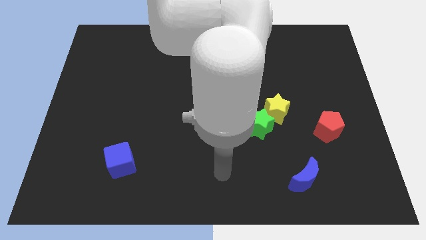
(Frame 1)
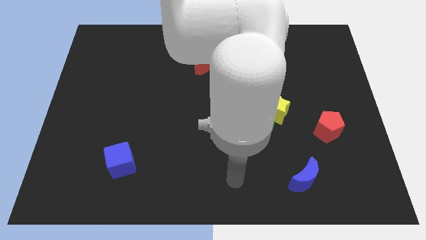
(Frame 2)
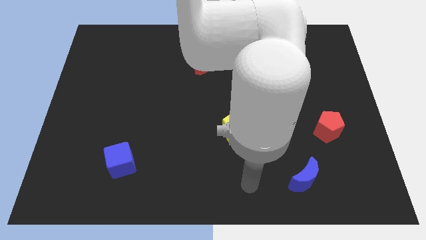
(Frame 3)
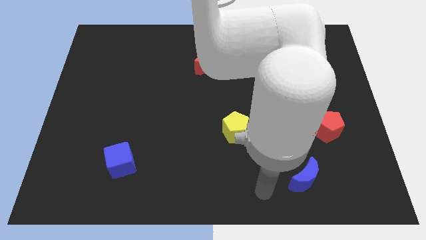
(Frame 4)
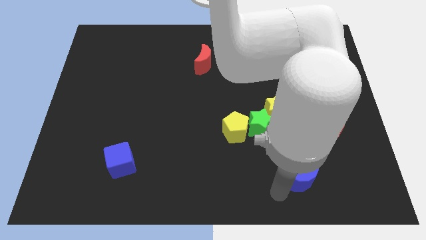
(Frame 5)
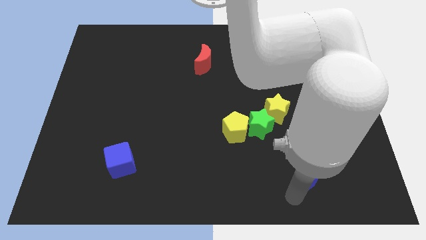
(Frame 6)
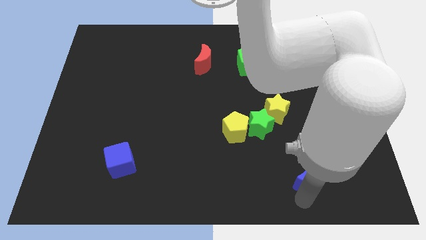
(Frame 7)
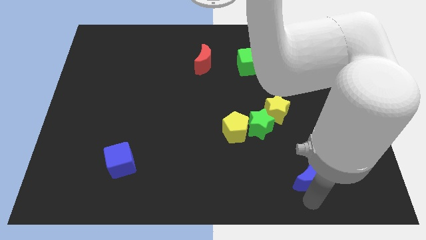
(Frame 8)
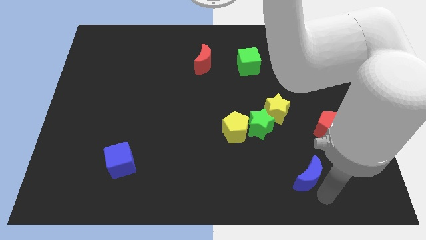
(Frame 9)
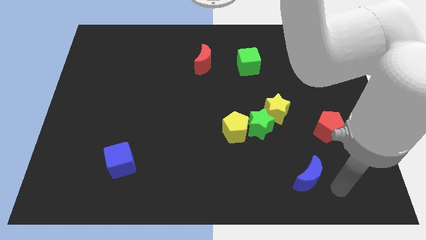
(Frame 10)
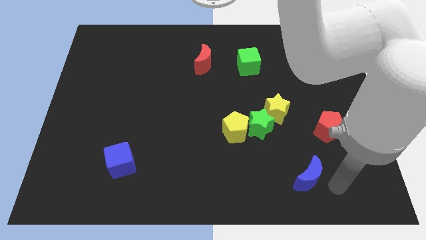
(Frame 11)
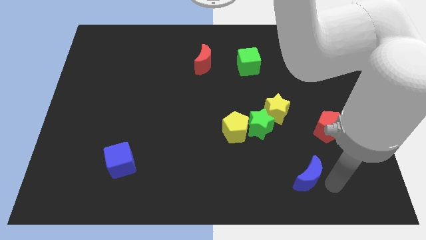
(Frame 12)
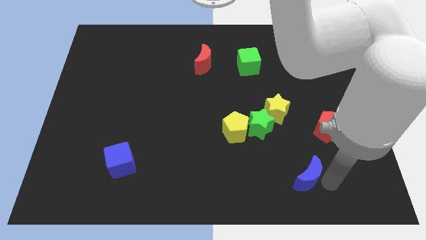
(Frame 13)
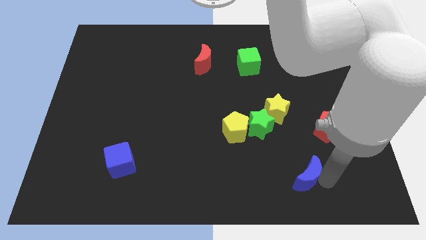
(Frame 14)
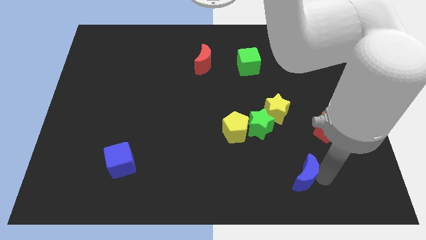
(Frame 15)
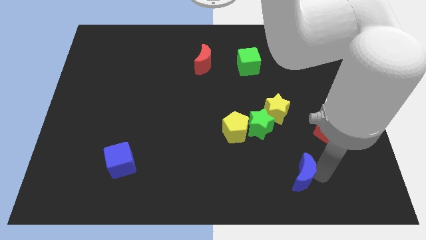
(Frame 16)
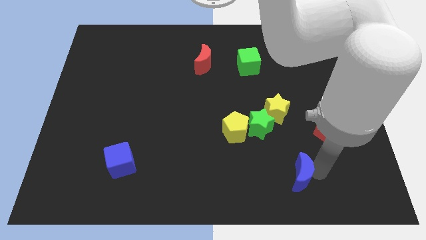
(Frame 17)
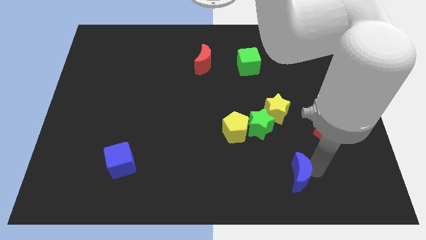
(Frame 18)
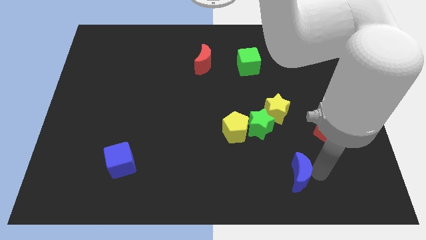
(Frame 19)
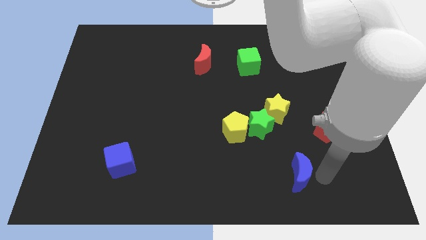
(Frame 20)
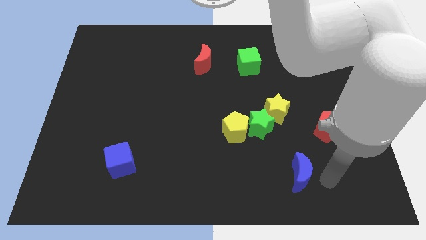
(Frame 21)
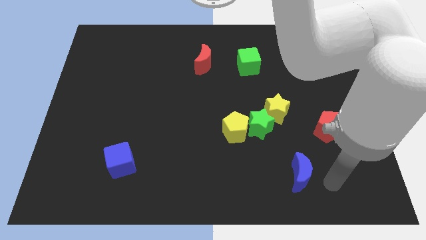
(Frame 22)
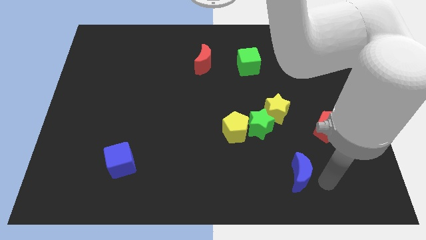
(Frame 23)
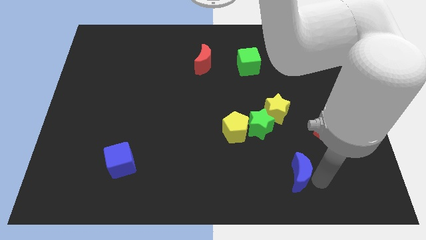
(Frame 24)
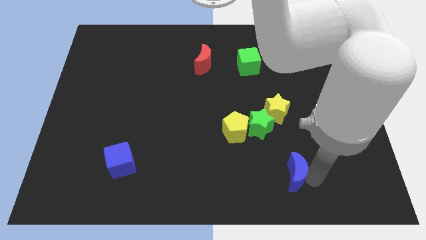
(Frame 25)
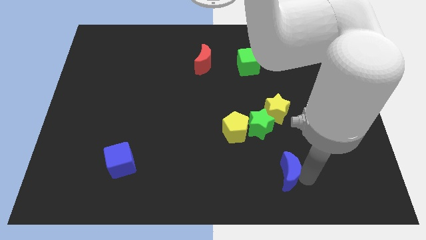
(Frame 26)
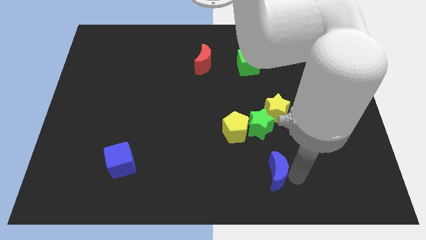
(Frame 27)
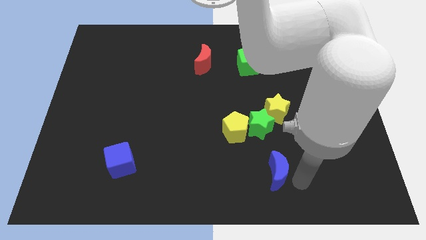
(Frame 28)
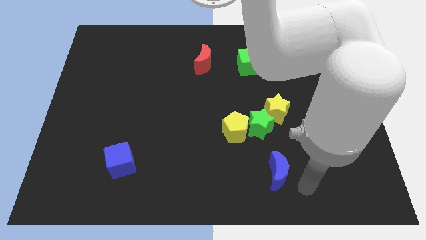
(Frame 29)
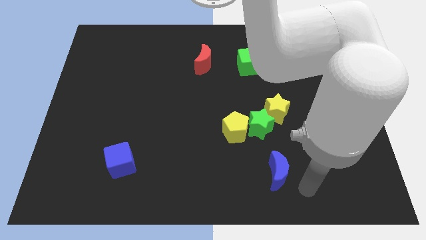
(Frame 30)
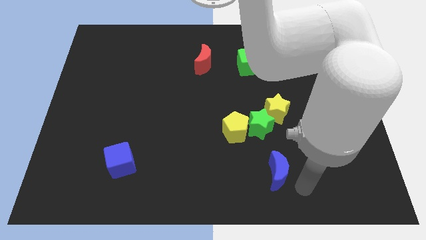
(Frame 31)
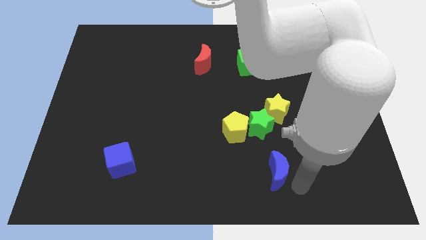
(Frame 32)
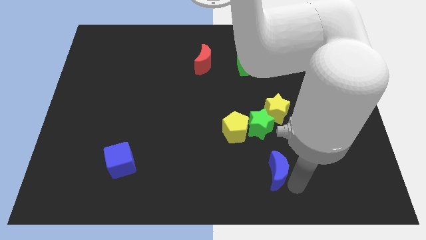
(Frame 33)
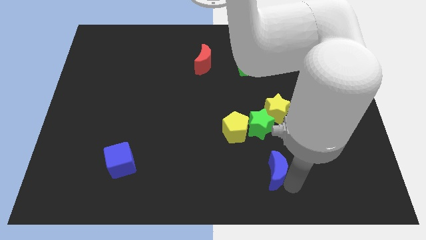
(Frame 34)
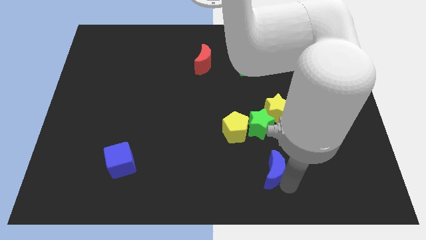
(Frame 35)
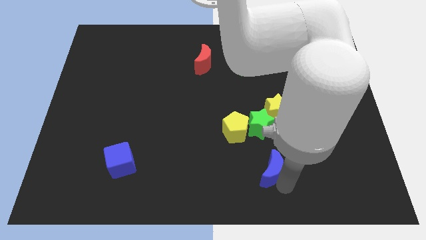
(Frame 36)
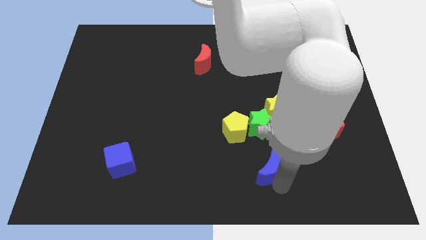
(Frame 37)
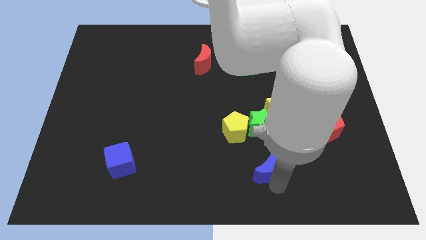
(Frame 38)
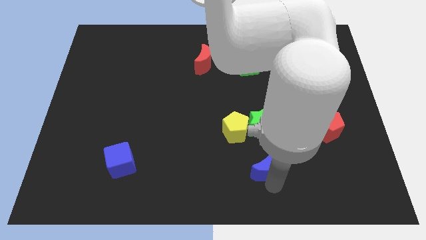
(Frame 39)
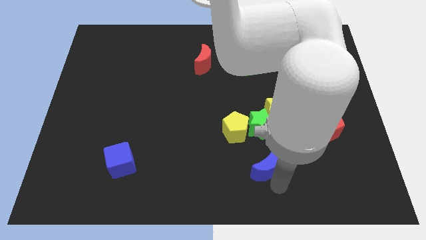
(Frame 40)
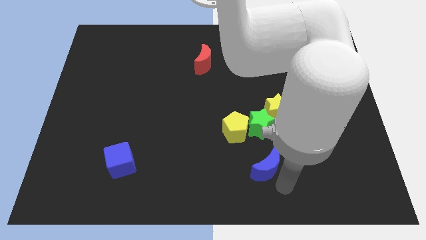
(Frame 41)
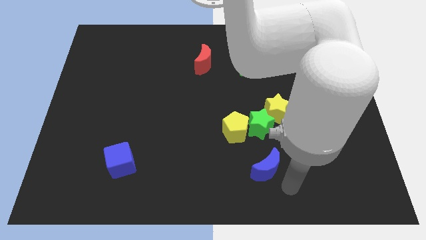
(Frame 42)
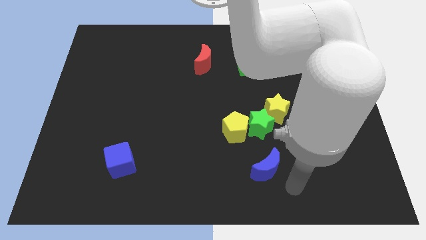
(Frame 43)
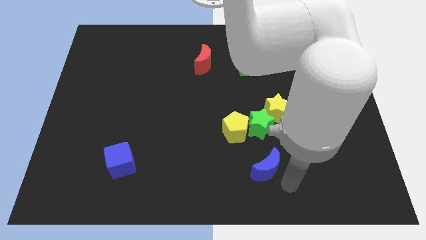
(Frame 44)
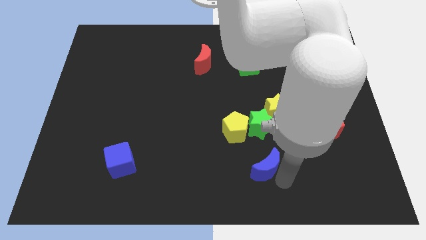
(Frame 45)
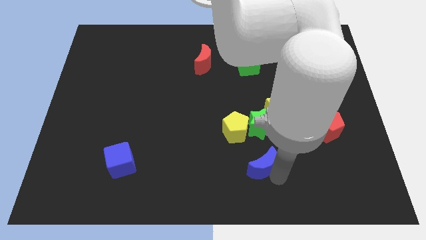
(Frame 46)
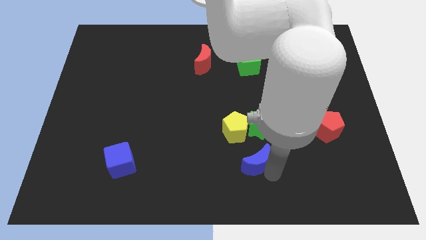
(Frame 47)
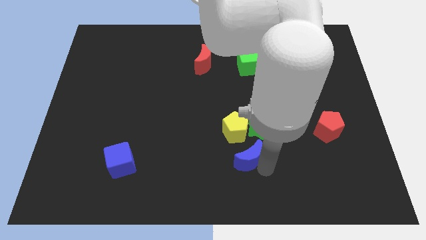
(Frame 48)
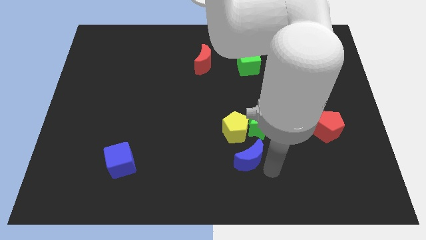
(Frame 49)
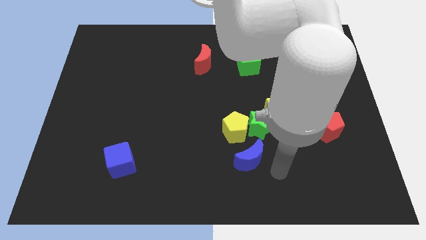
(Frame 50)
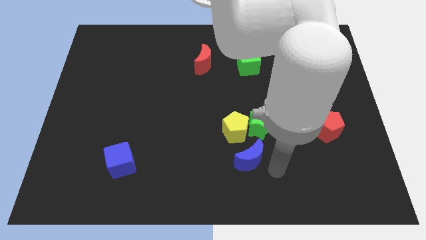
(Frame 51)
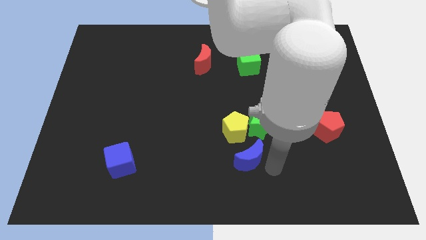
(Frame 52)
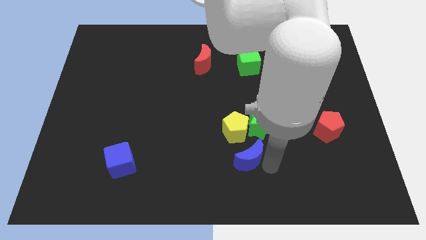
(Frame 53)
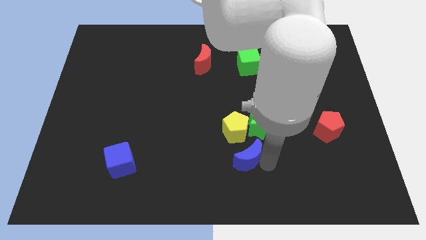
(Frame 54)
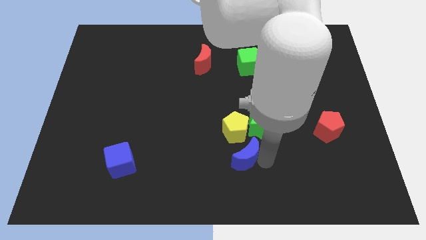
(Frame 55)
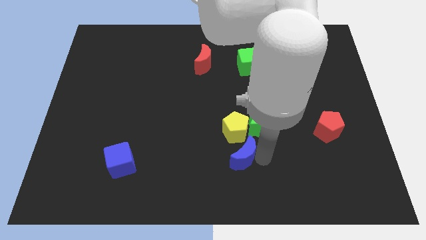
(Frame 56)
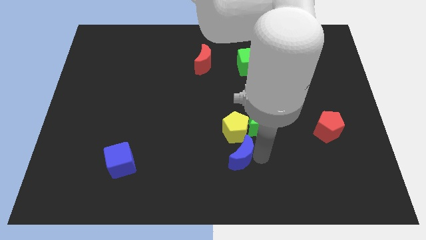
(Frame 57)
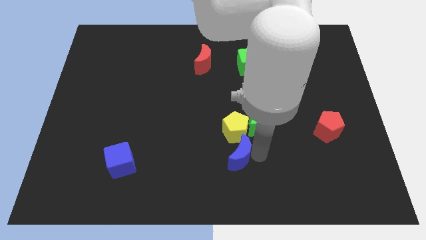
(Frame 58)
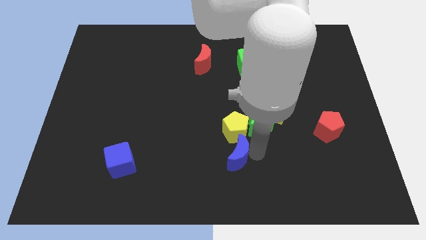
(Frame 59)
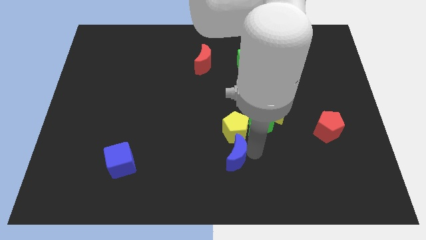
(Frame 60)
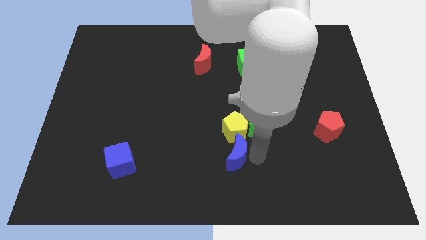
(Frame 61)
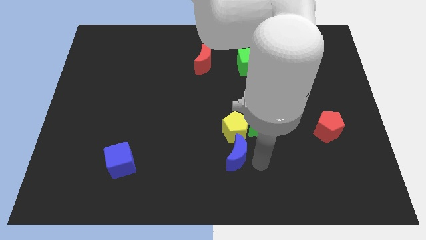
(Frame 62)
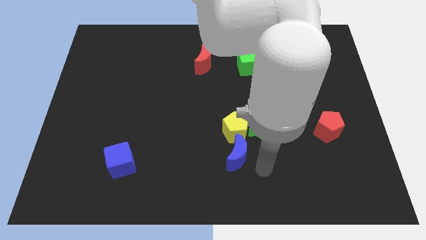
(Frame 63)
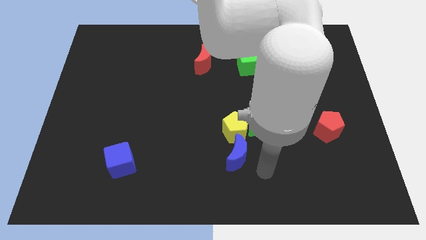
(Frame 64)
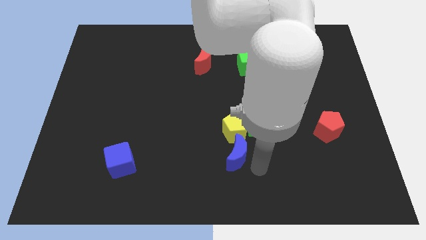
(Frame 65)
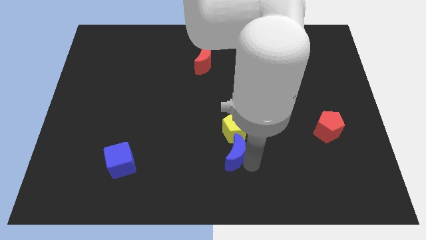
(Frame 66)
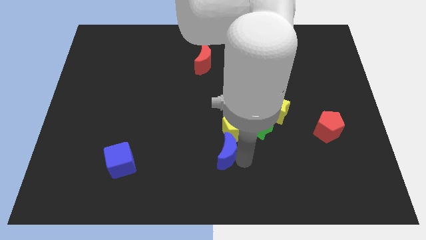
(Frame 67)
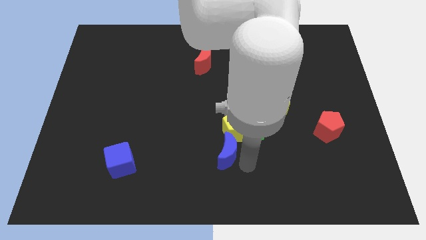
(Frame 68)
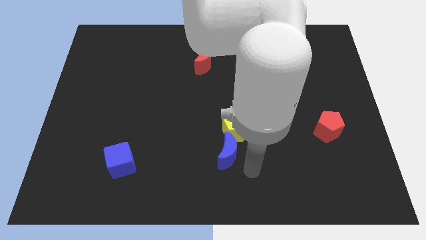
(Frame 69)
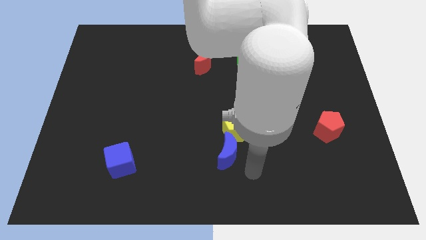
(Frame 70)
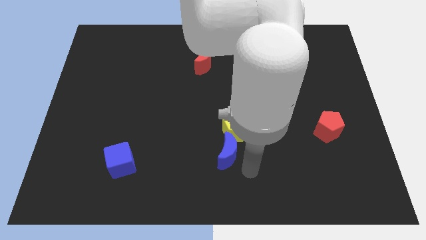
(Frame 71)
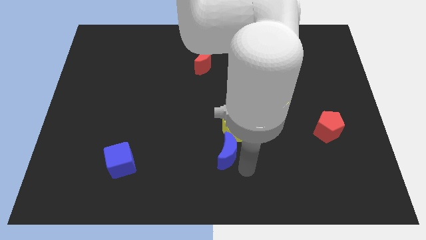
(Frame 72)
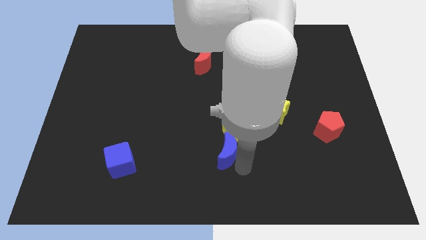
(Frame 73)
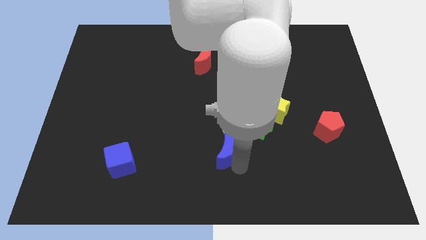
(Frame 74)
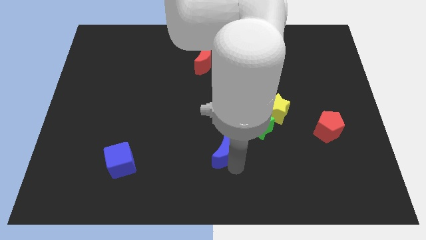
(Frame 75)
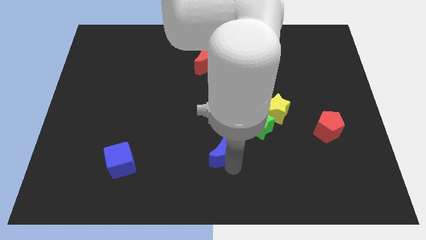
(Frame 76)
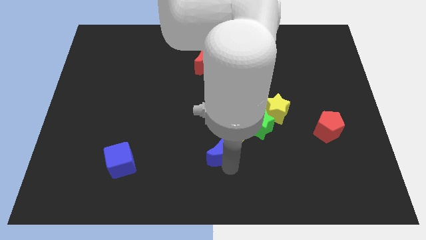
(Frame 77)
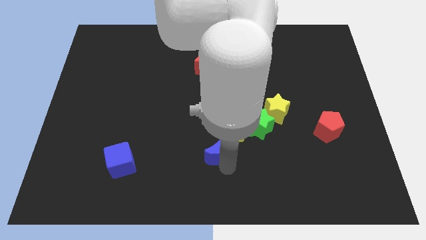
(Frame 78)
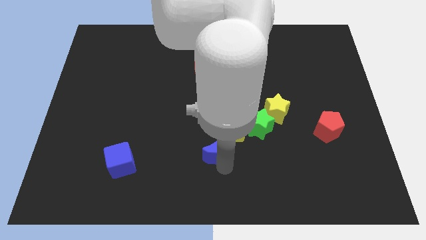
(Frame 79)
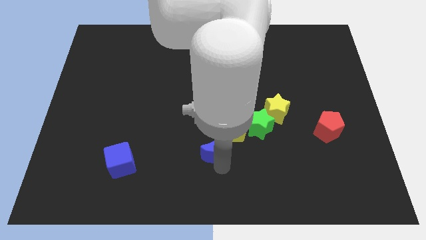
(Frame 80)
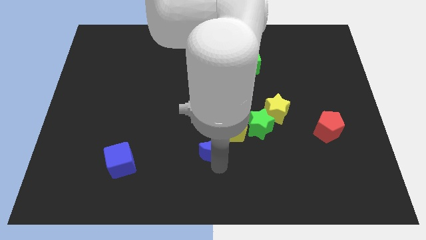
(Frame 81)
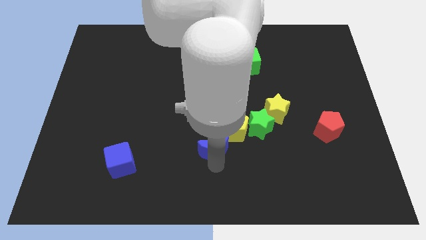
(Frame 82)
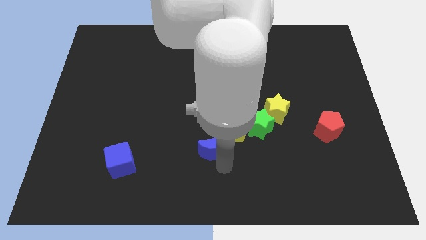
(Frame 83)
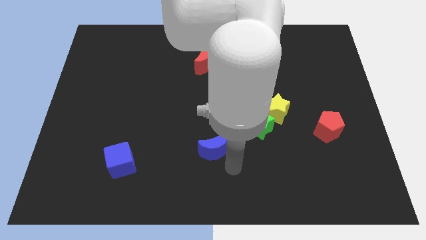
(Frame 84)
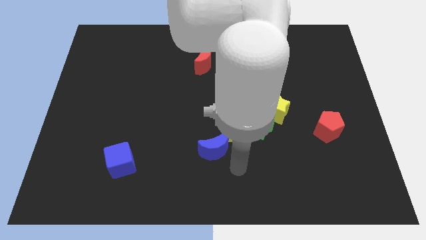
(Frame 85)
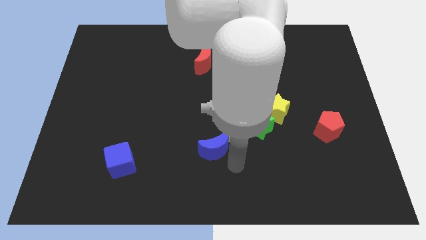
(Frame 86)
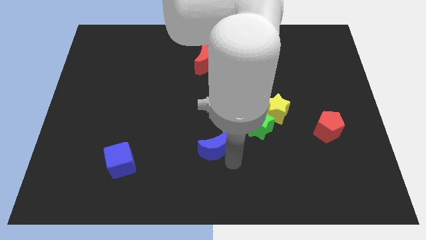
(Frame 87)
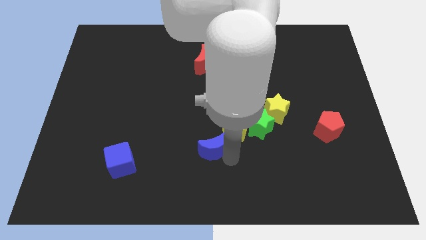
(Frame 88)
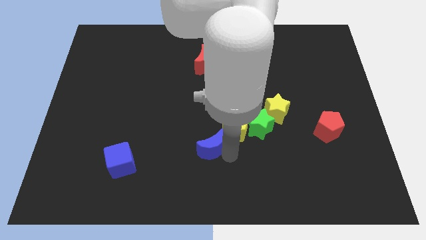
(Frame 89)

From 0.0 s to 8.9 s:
slide the blue moon to the left of the yellow pentagon
